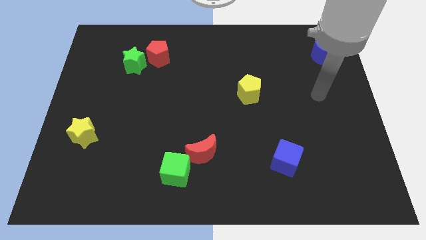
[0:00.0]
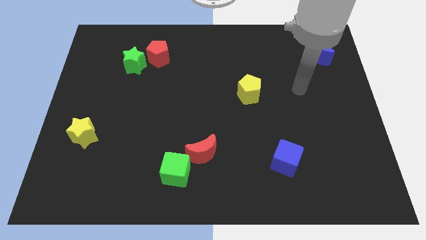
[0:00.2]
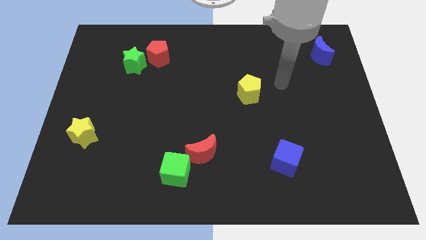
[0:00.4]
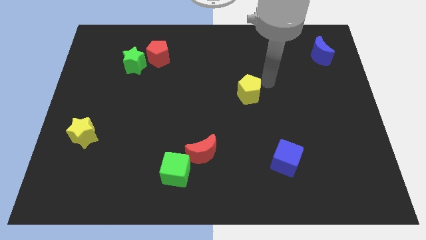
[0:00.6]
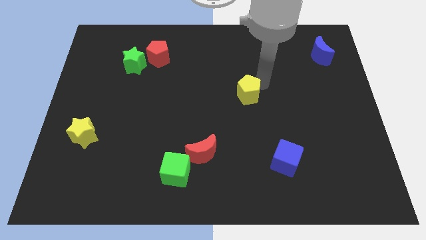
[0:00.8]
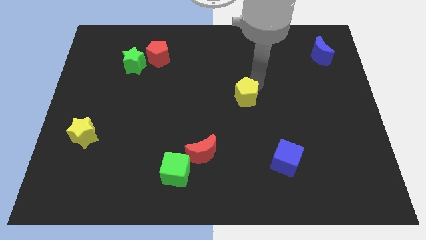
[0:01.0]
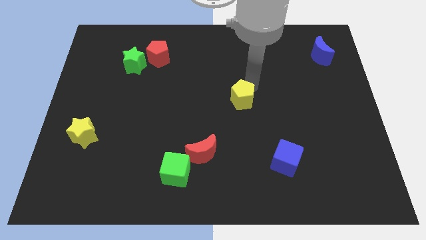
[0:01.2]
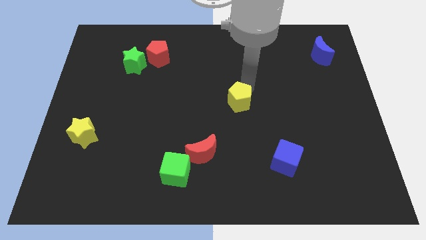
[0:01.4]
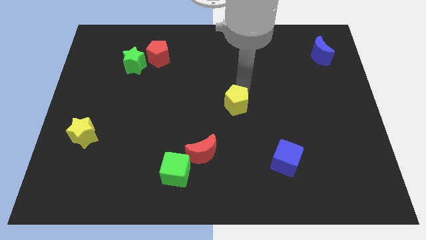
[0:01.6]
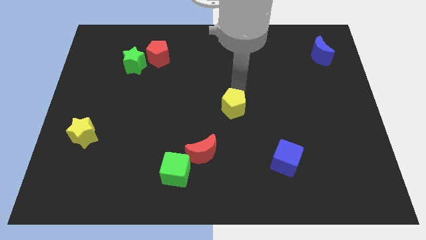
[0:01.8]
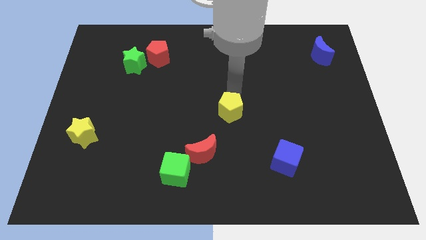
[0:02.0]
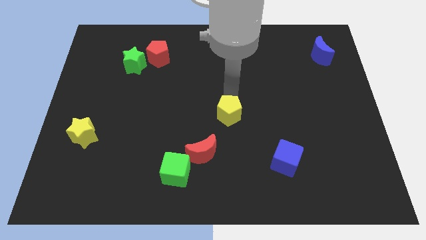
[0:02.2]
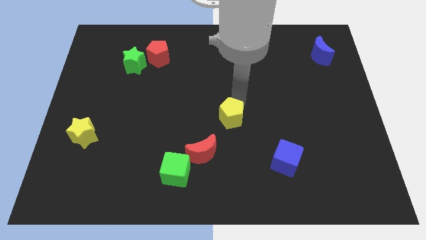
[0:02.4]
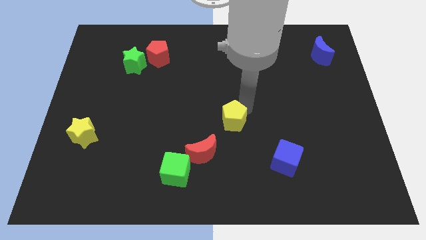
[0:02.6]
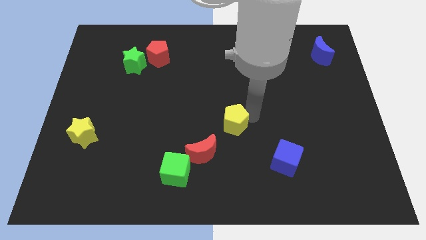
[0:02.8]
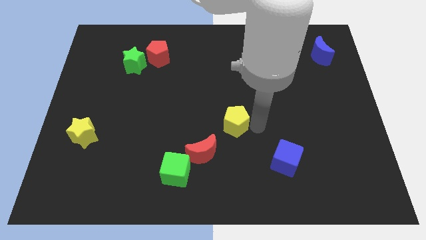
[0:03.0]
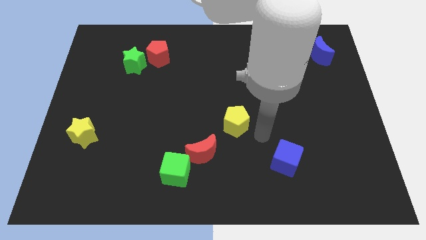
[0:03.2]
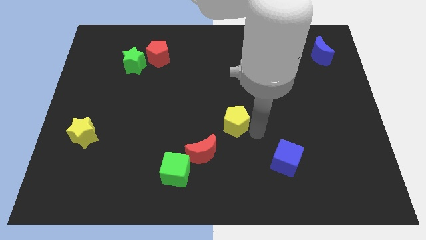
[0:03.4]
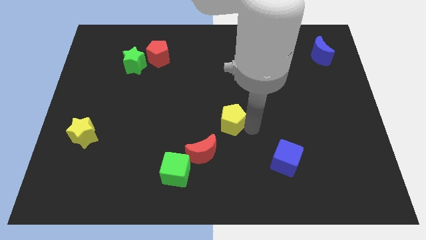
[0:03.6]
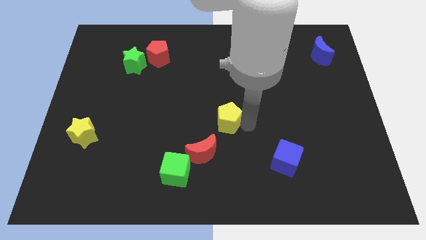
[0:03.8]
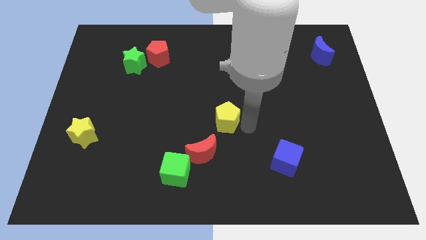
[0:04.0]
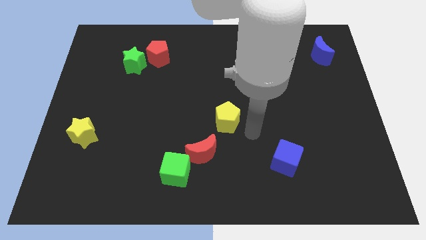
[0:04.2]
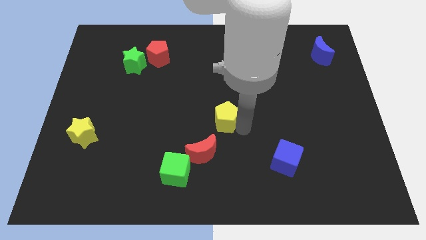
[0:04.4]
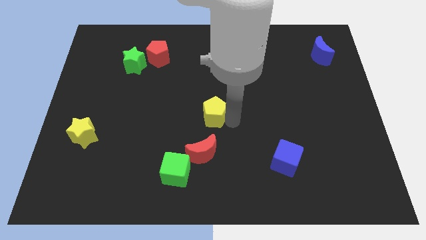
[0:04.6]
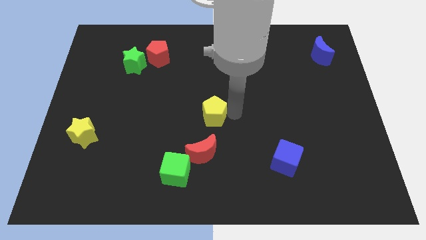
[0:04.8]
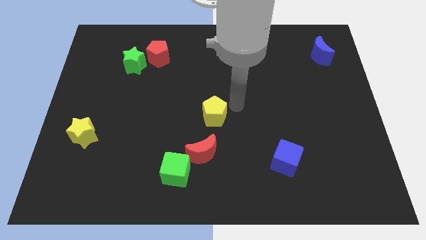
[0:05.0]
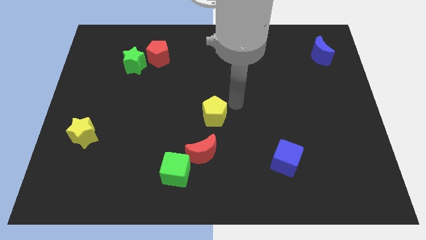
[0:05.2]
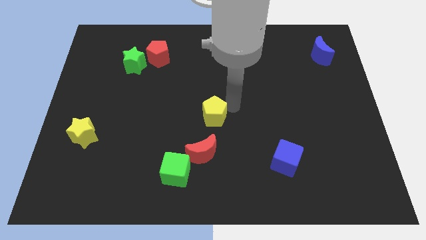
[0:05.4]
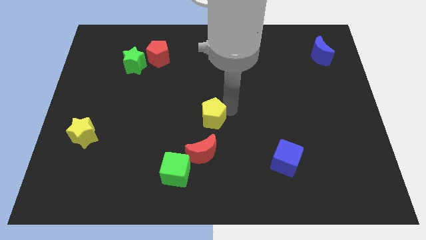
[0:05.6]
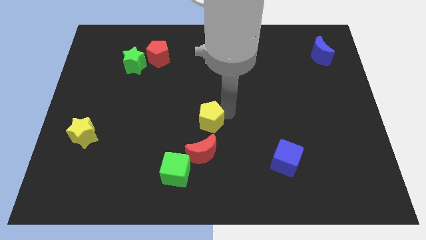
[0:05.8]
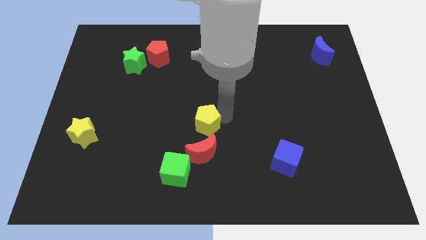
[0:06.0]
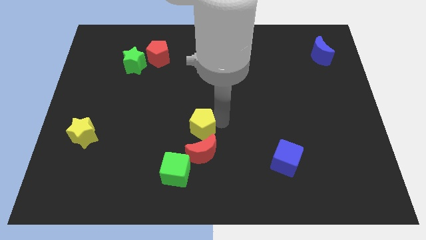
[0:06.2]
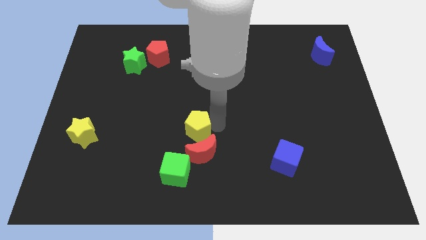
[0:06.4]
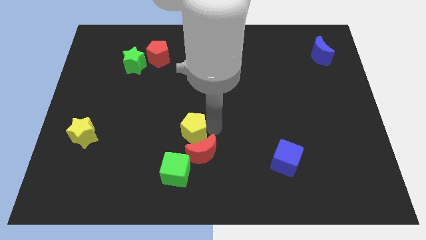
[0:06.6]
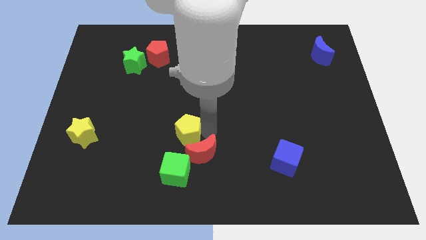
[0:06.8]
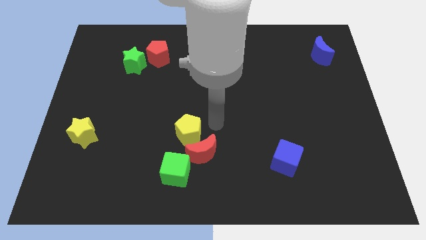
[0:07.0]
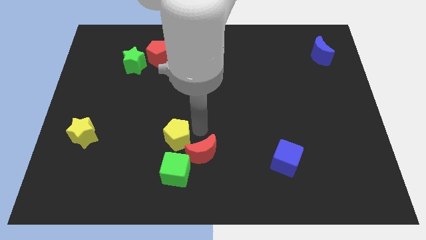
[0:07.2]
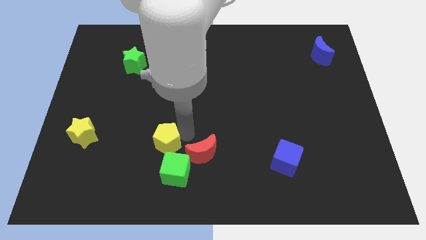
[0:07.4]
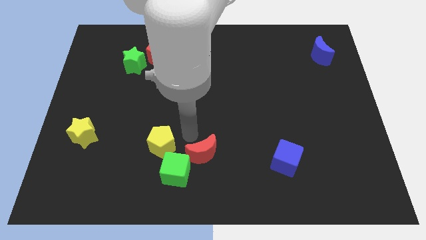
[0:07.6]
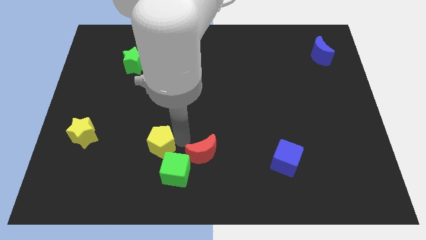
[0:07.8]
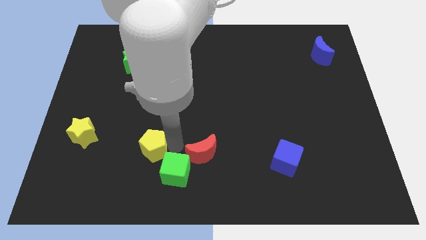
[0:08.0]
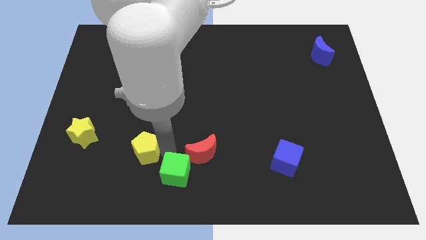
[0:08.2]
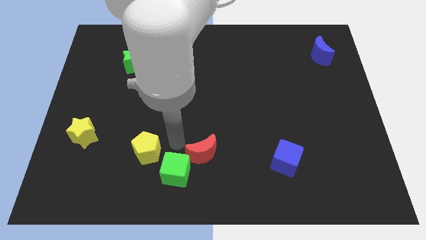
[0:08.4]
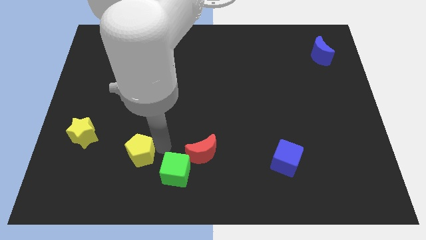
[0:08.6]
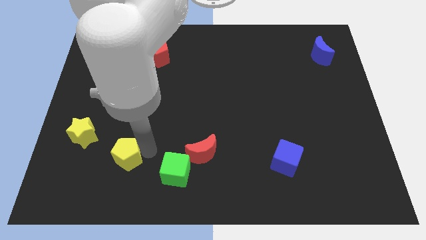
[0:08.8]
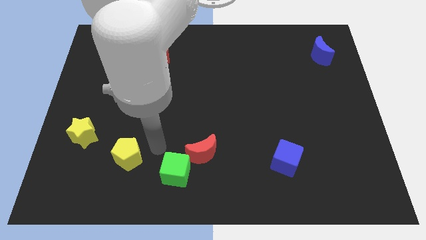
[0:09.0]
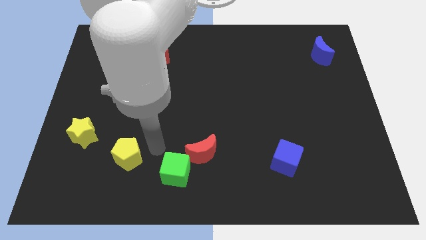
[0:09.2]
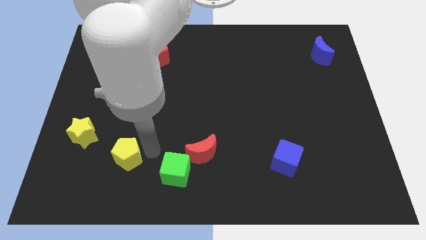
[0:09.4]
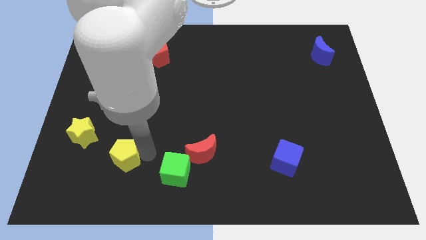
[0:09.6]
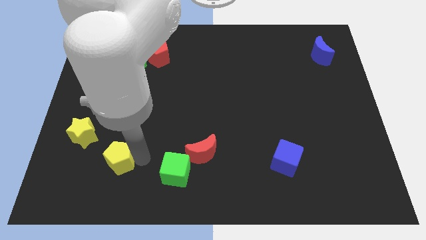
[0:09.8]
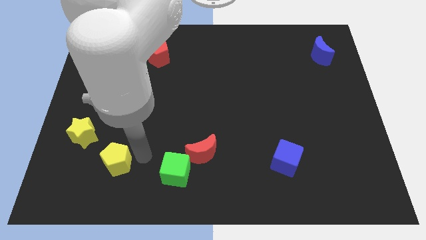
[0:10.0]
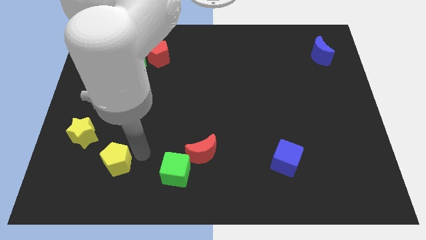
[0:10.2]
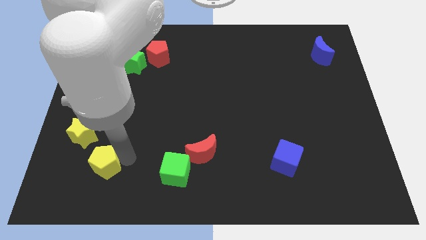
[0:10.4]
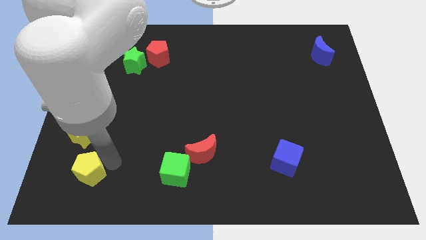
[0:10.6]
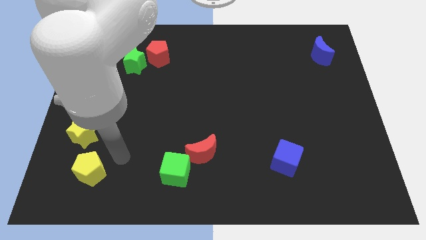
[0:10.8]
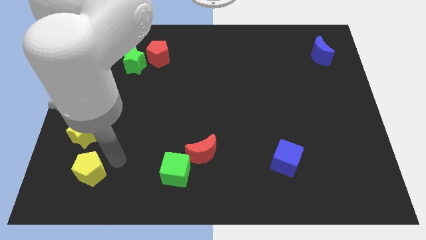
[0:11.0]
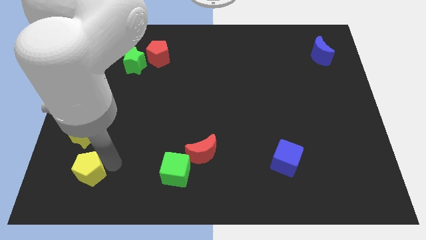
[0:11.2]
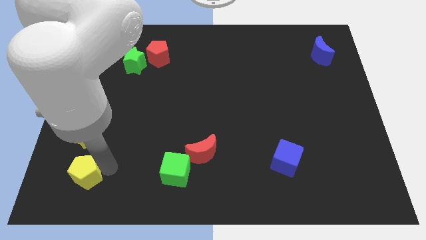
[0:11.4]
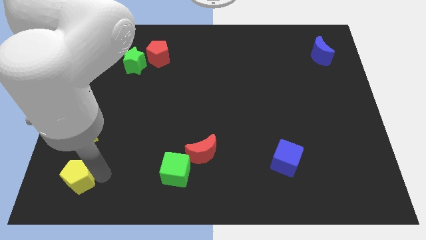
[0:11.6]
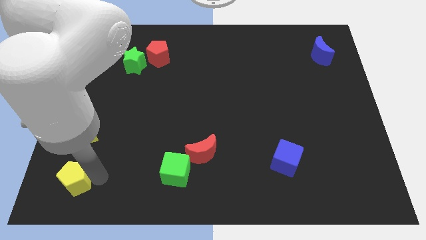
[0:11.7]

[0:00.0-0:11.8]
move the yellow pentagon to the bottom left
